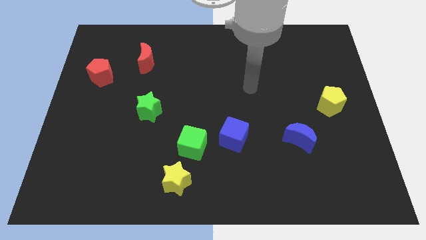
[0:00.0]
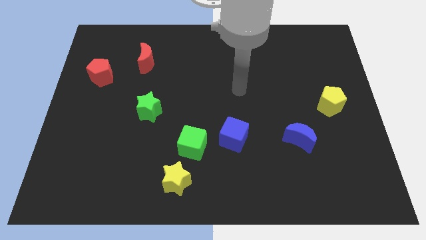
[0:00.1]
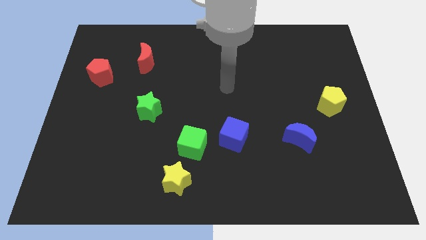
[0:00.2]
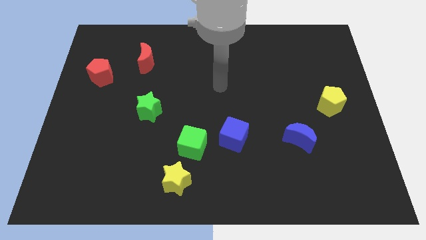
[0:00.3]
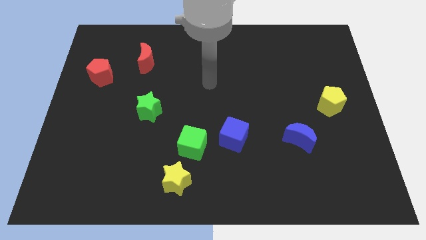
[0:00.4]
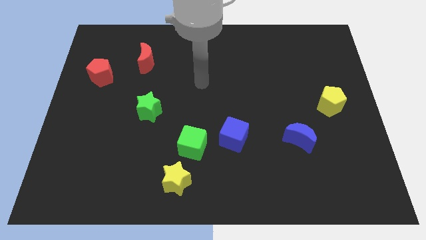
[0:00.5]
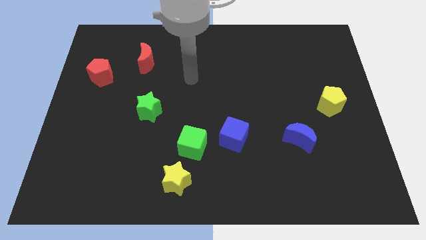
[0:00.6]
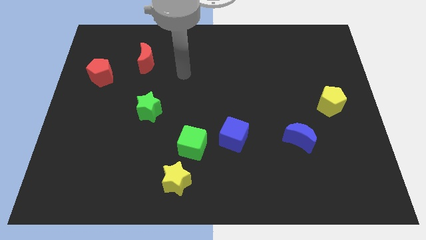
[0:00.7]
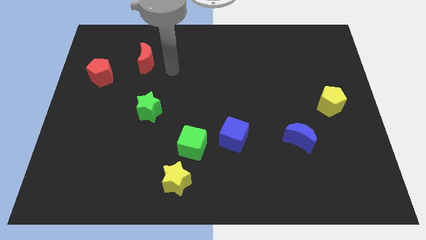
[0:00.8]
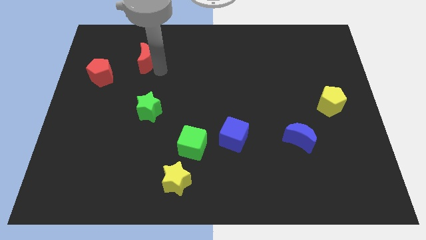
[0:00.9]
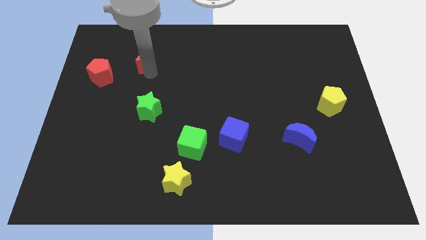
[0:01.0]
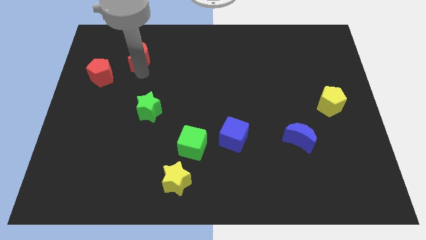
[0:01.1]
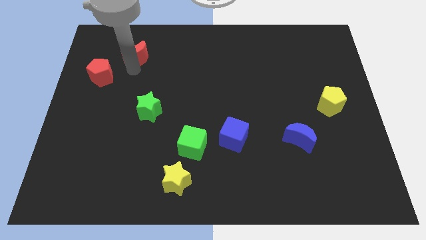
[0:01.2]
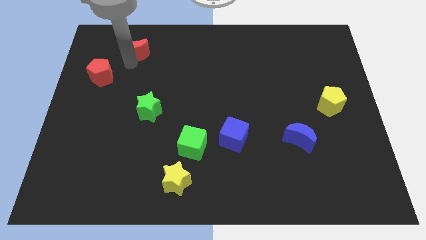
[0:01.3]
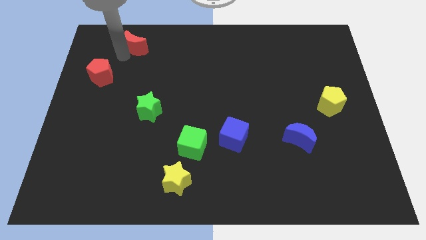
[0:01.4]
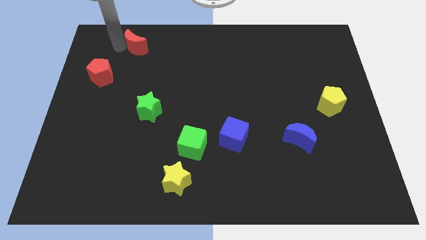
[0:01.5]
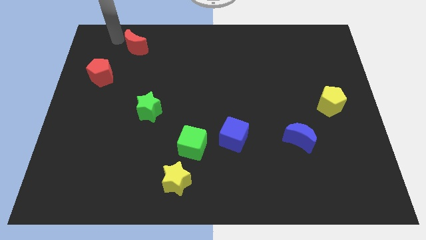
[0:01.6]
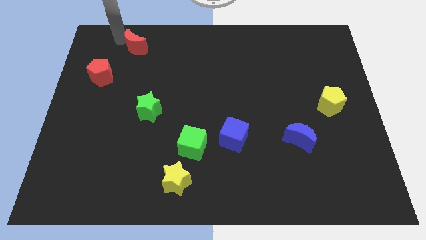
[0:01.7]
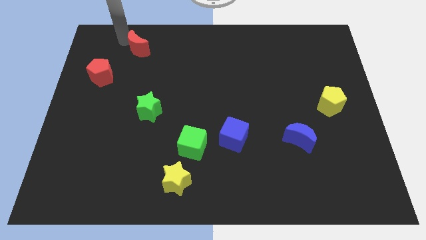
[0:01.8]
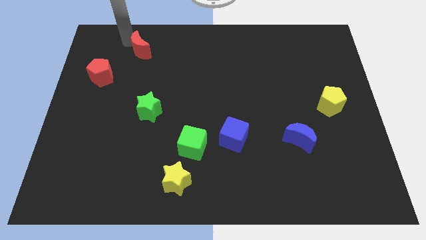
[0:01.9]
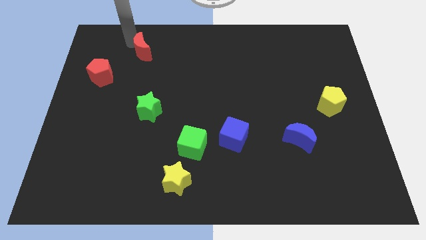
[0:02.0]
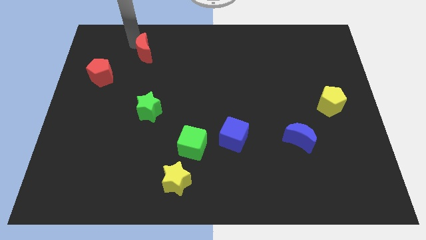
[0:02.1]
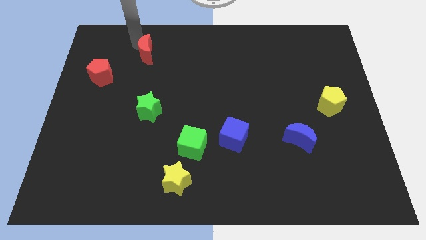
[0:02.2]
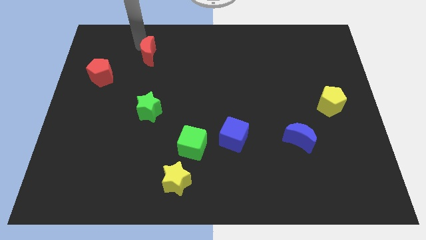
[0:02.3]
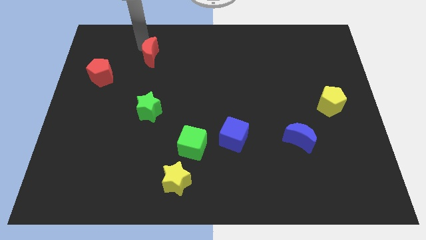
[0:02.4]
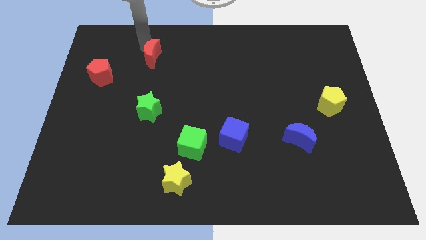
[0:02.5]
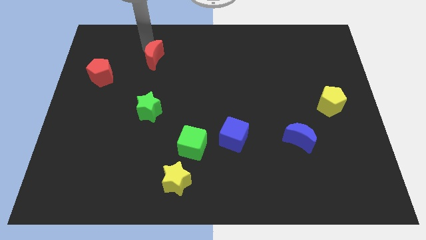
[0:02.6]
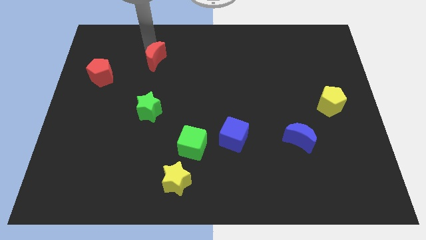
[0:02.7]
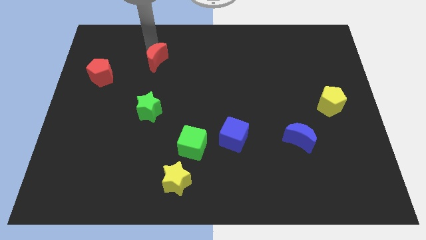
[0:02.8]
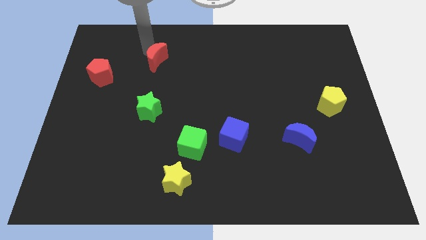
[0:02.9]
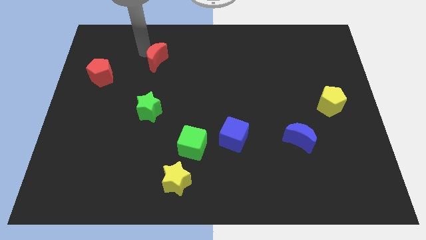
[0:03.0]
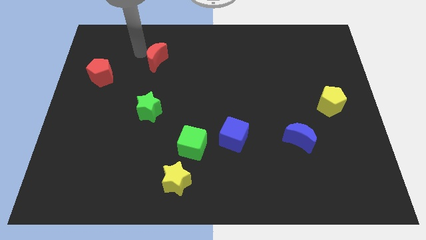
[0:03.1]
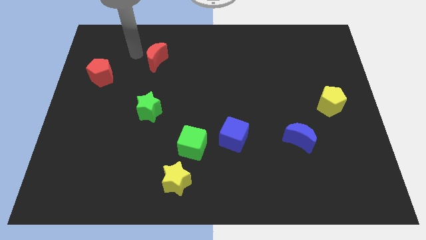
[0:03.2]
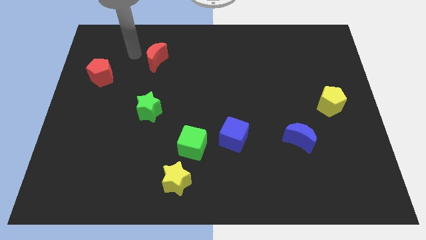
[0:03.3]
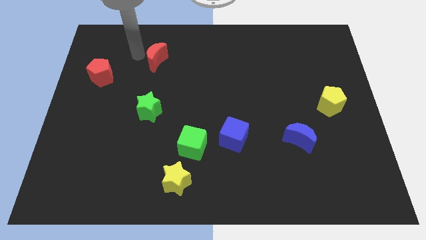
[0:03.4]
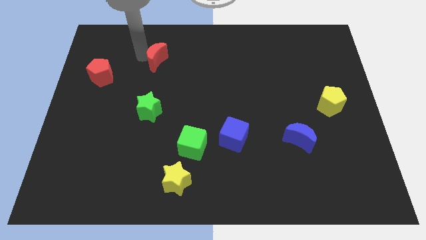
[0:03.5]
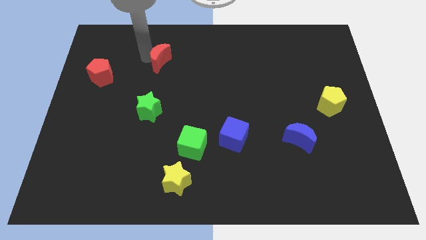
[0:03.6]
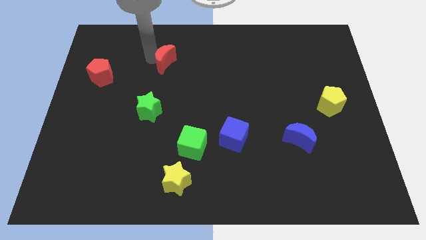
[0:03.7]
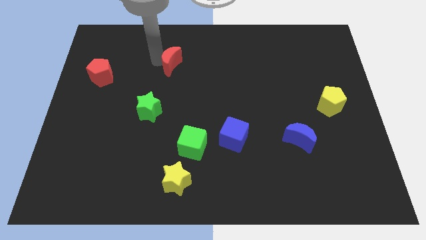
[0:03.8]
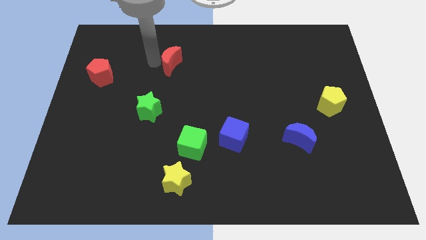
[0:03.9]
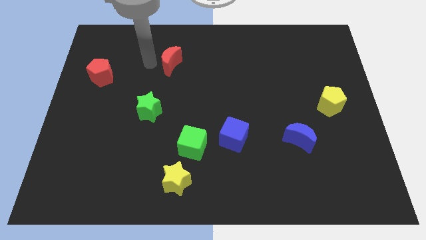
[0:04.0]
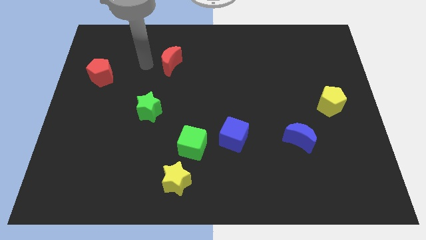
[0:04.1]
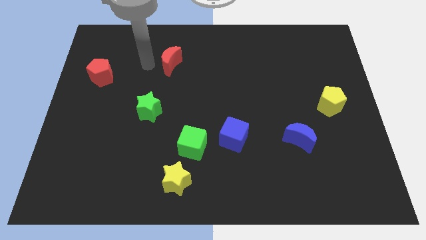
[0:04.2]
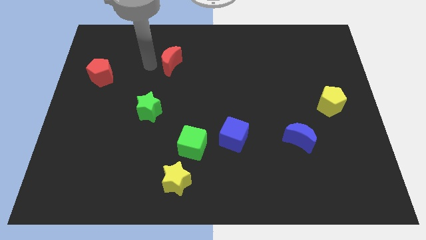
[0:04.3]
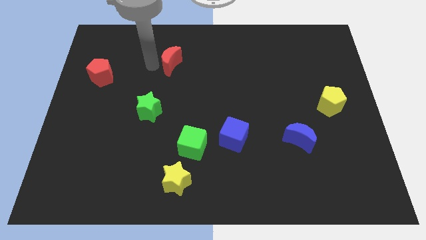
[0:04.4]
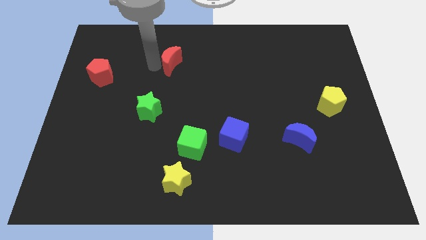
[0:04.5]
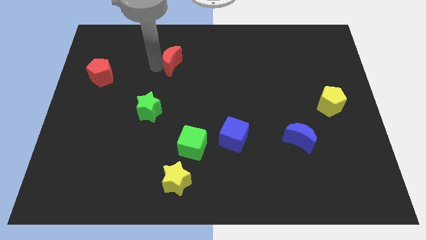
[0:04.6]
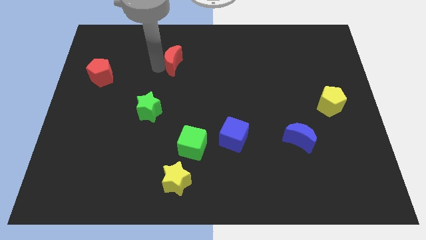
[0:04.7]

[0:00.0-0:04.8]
slide the red moon a little bit right

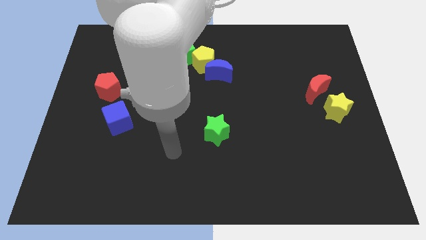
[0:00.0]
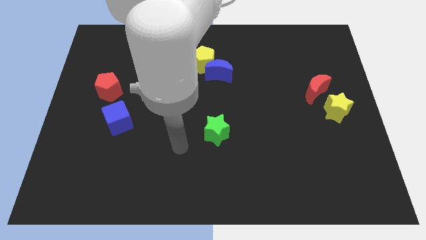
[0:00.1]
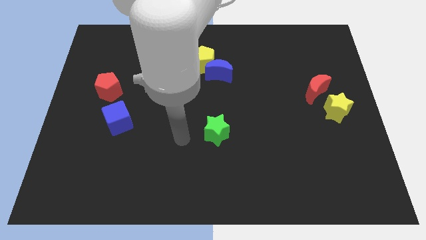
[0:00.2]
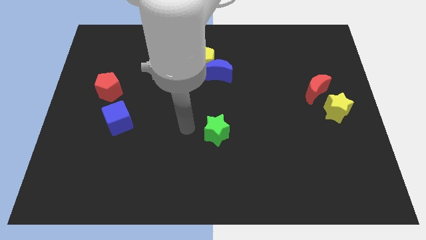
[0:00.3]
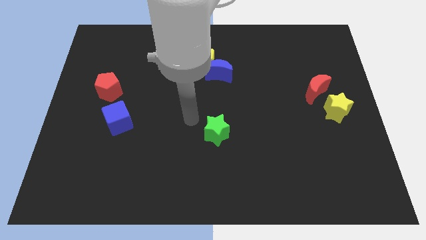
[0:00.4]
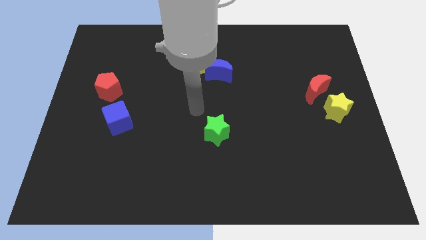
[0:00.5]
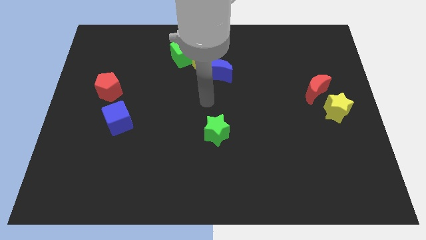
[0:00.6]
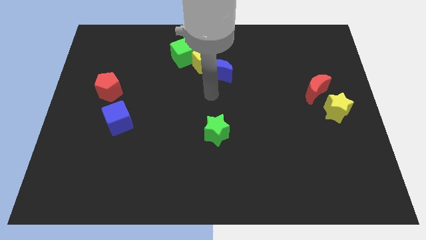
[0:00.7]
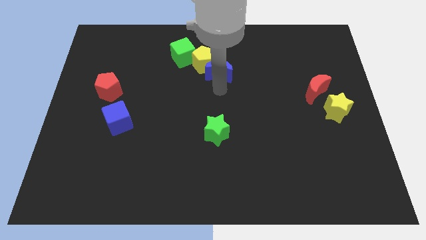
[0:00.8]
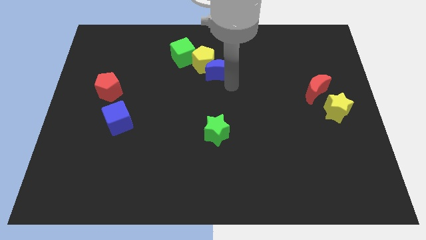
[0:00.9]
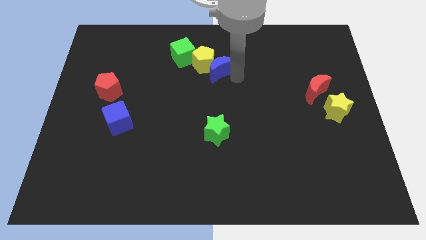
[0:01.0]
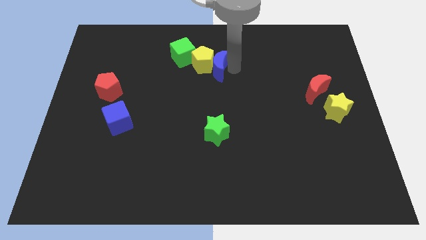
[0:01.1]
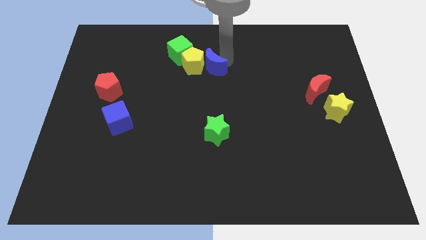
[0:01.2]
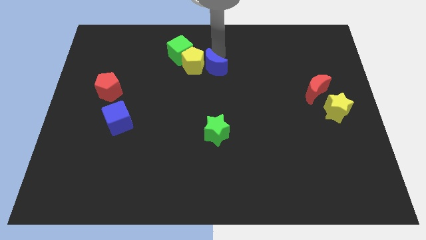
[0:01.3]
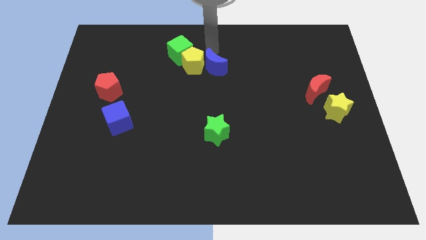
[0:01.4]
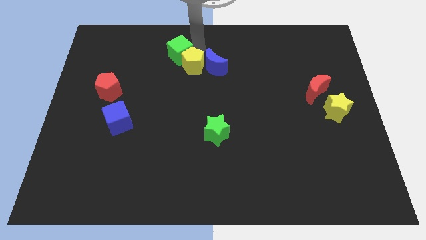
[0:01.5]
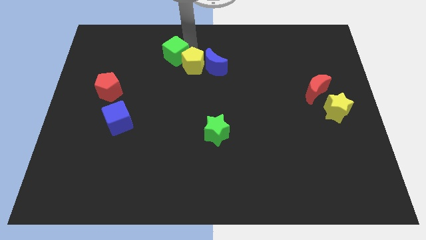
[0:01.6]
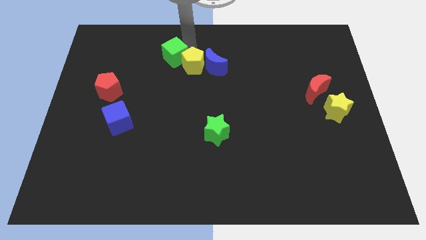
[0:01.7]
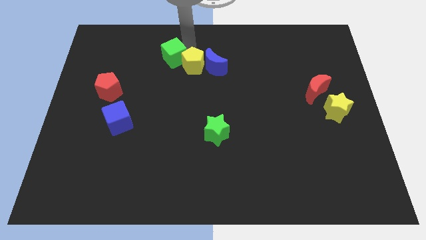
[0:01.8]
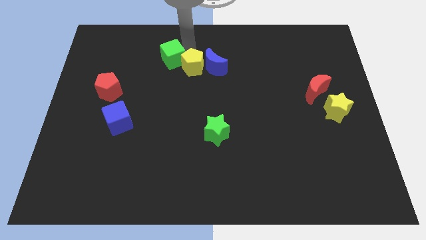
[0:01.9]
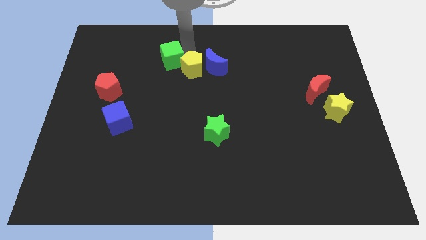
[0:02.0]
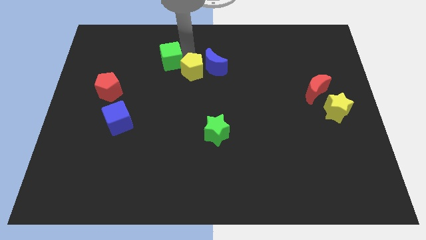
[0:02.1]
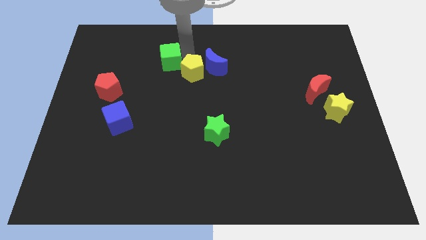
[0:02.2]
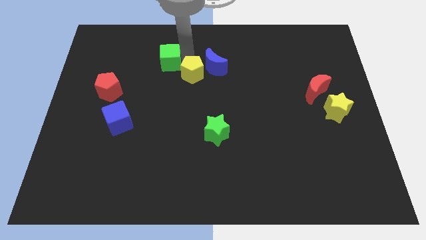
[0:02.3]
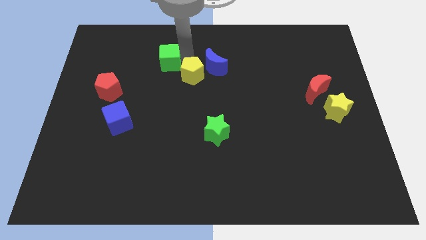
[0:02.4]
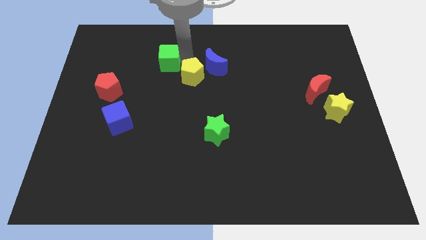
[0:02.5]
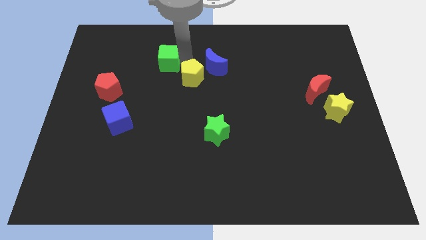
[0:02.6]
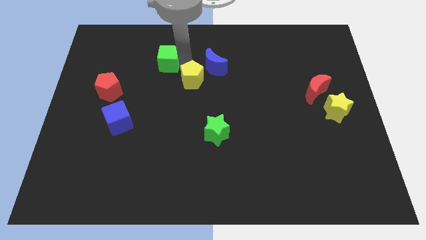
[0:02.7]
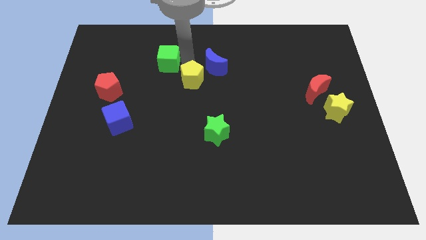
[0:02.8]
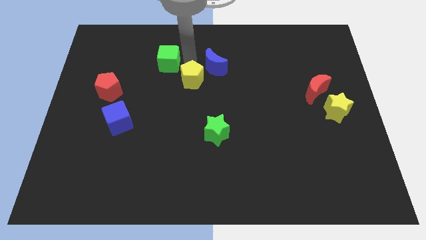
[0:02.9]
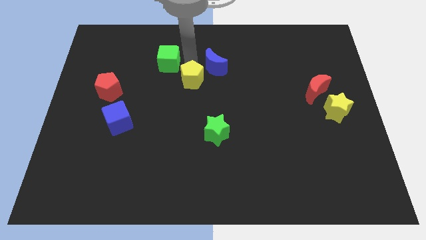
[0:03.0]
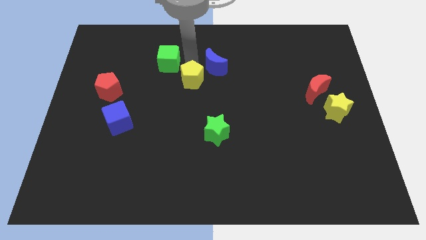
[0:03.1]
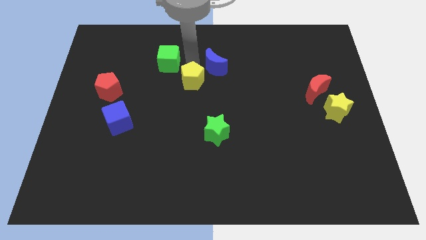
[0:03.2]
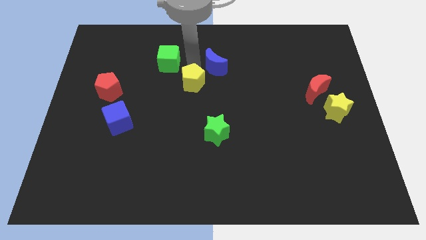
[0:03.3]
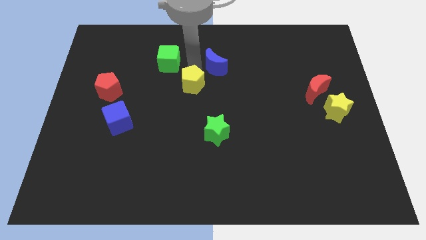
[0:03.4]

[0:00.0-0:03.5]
push the yellow pentagon downwards somewhat
